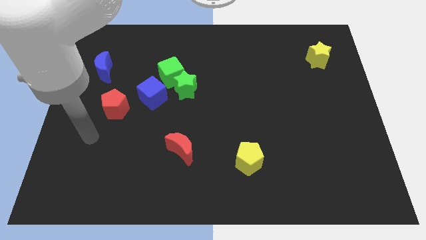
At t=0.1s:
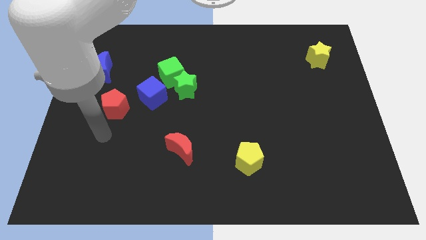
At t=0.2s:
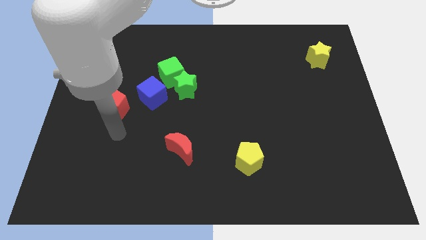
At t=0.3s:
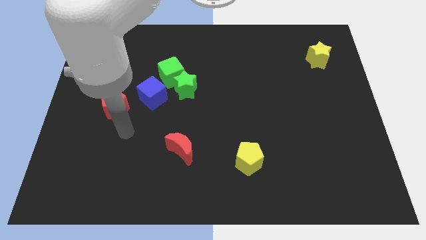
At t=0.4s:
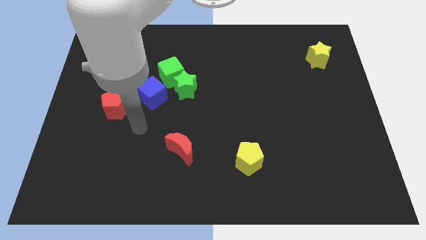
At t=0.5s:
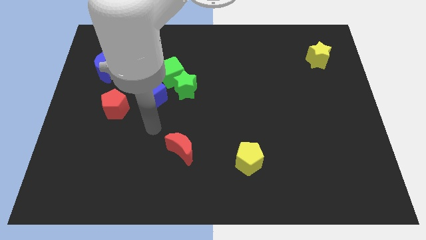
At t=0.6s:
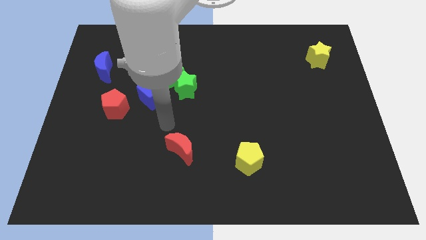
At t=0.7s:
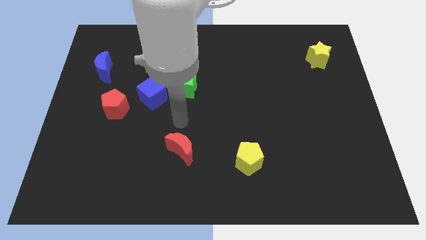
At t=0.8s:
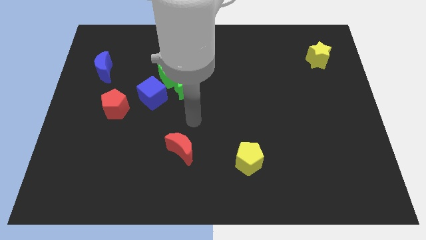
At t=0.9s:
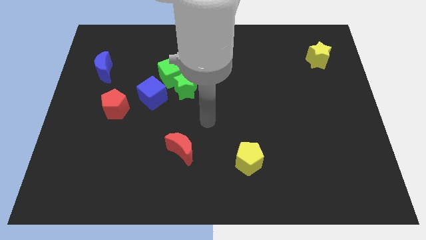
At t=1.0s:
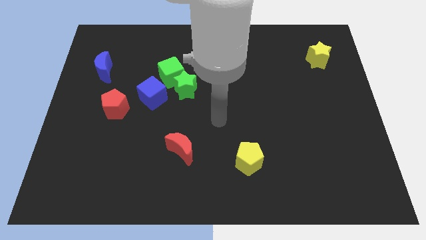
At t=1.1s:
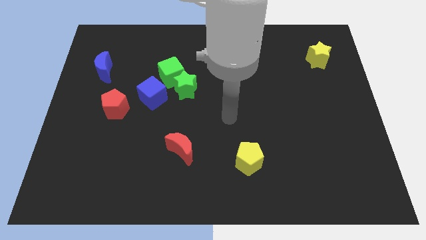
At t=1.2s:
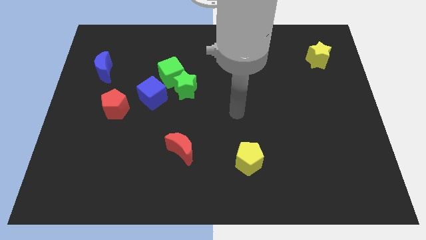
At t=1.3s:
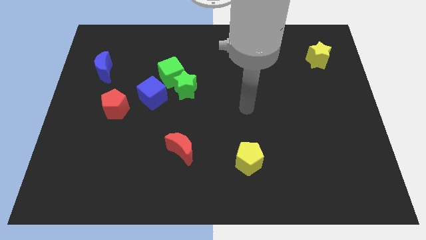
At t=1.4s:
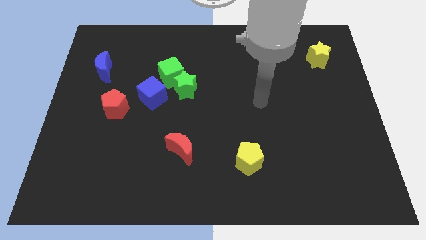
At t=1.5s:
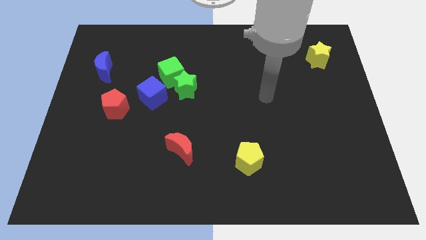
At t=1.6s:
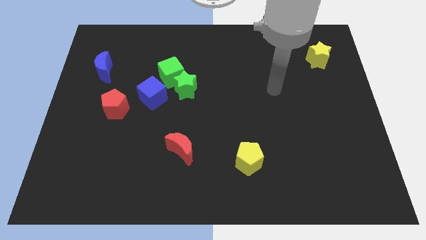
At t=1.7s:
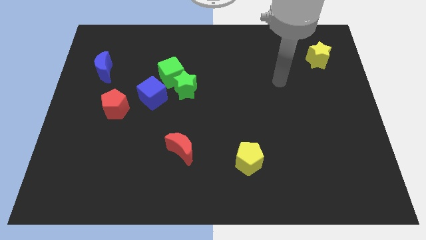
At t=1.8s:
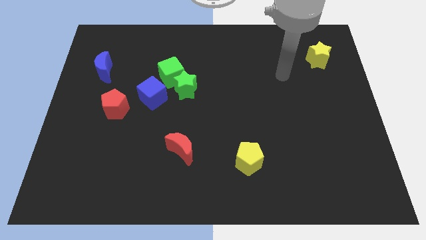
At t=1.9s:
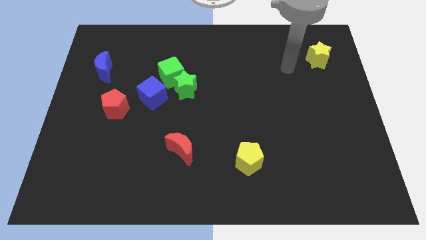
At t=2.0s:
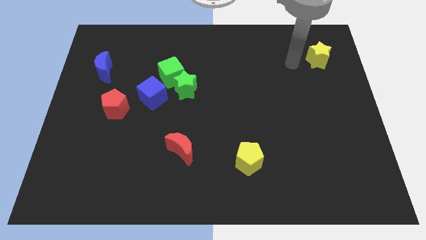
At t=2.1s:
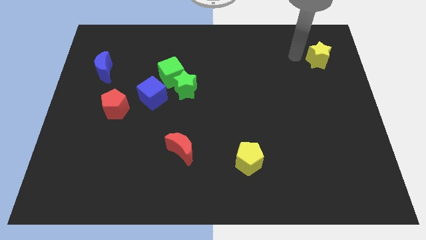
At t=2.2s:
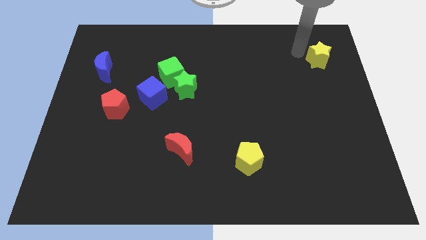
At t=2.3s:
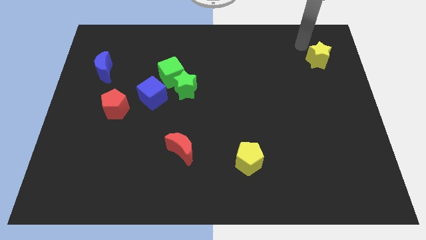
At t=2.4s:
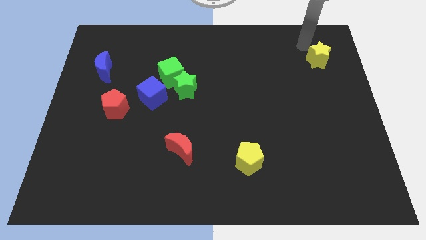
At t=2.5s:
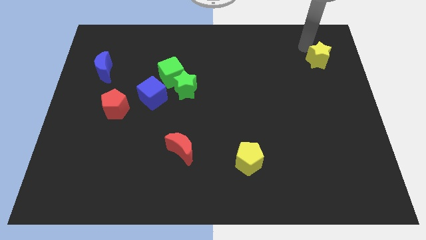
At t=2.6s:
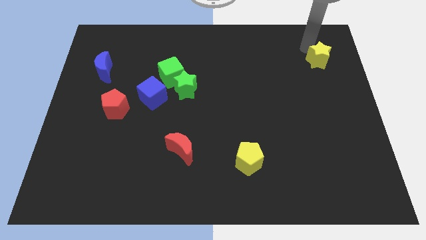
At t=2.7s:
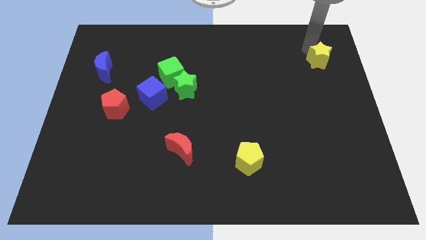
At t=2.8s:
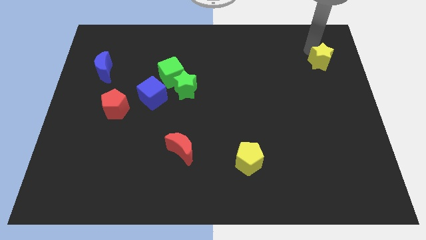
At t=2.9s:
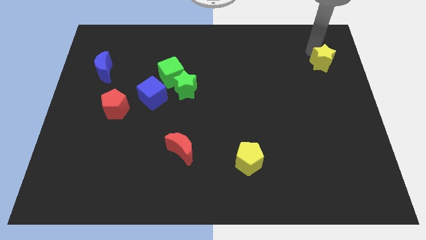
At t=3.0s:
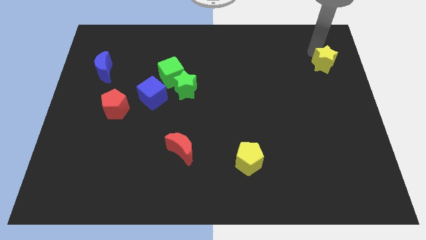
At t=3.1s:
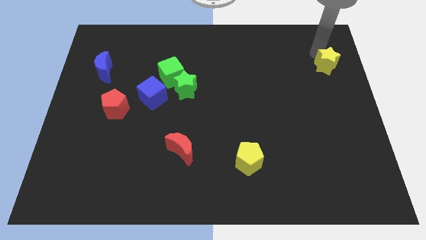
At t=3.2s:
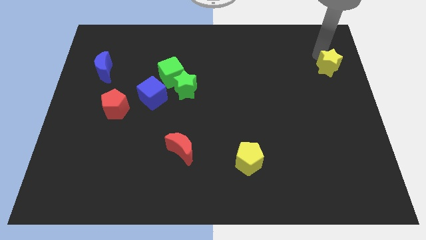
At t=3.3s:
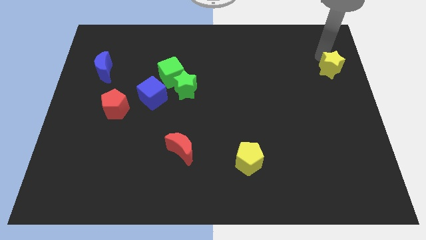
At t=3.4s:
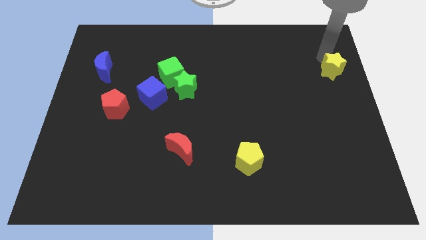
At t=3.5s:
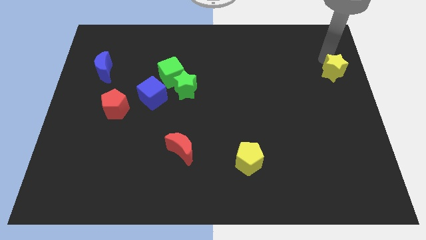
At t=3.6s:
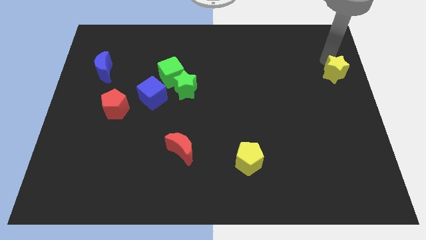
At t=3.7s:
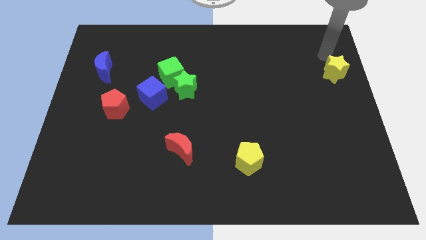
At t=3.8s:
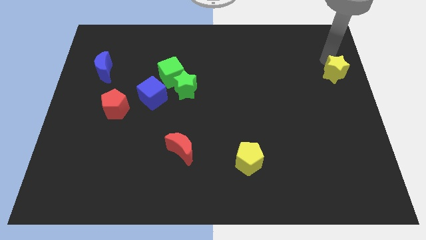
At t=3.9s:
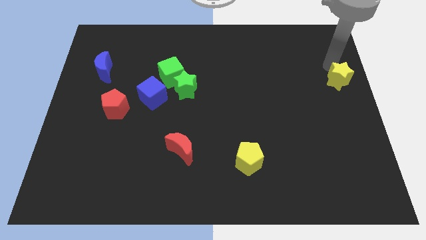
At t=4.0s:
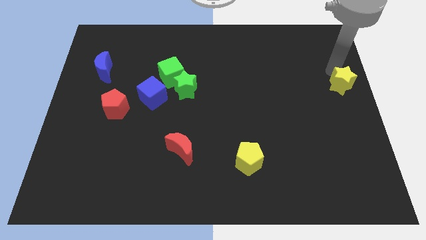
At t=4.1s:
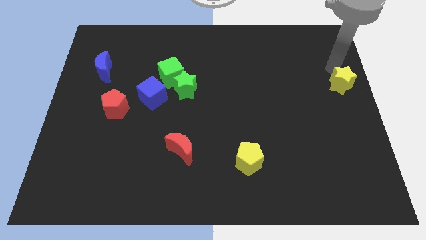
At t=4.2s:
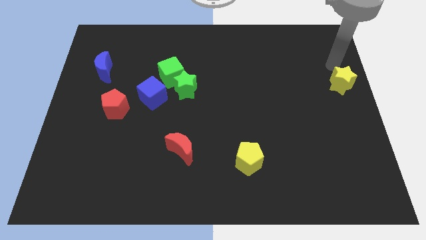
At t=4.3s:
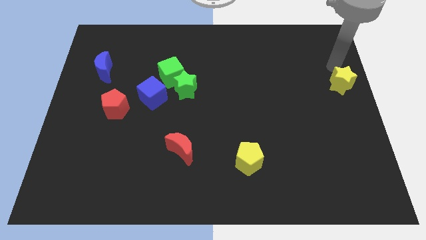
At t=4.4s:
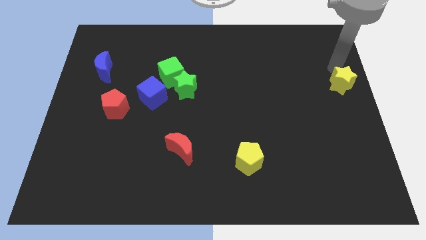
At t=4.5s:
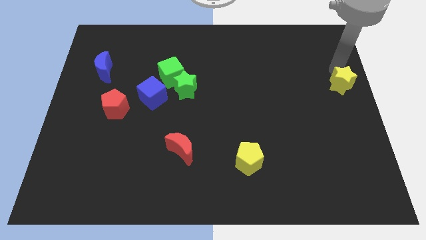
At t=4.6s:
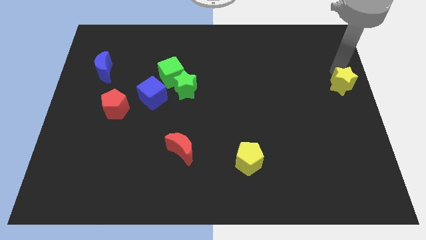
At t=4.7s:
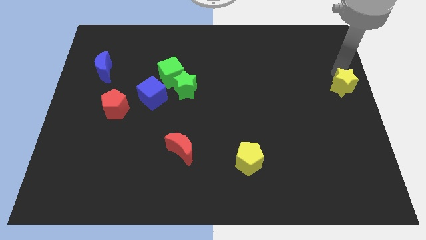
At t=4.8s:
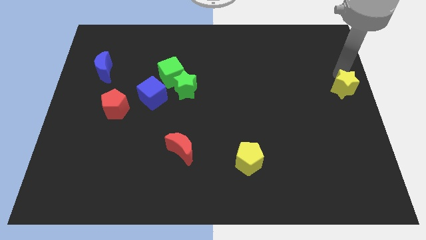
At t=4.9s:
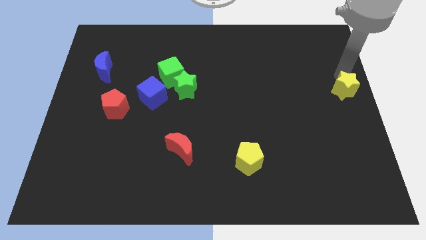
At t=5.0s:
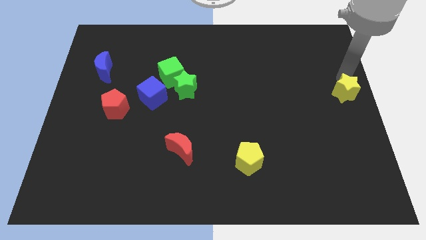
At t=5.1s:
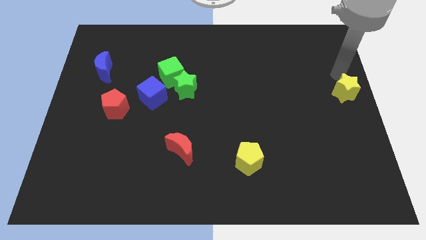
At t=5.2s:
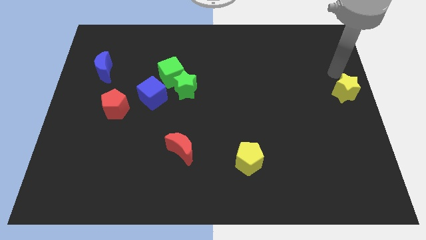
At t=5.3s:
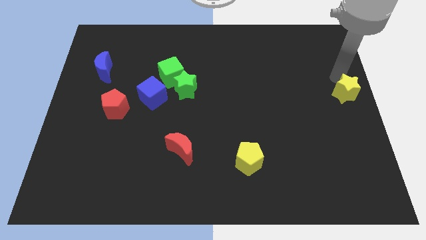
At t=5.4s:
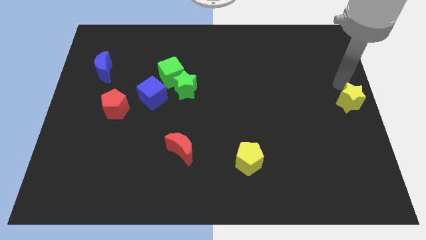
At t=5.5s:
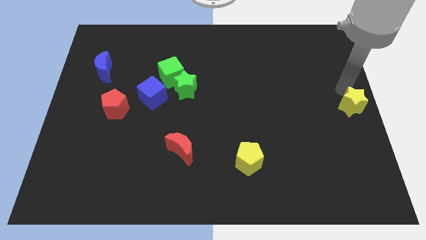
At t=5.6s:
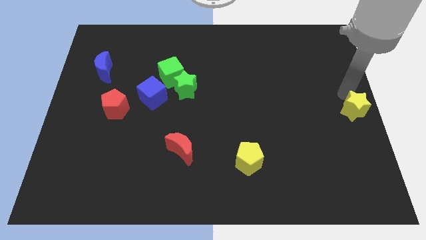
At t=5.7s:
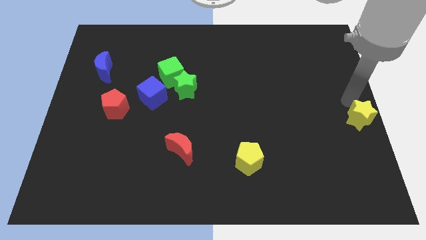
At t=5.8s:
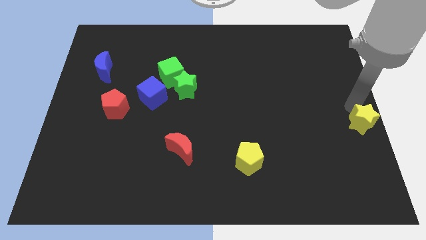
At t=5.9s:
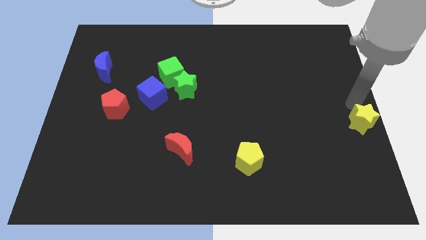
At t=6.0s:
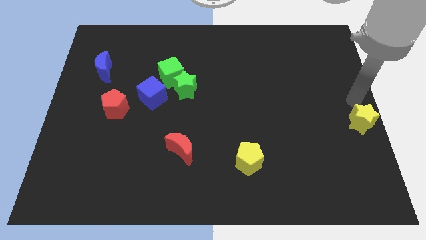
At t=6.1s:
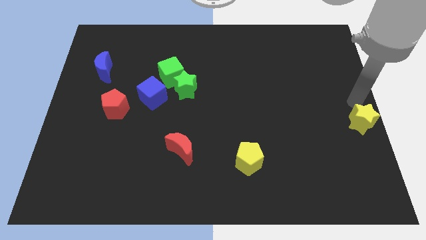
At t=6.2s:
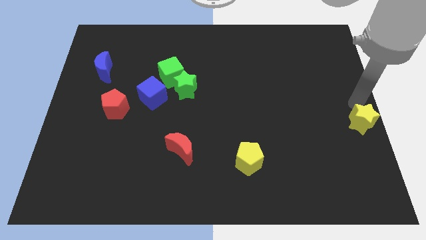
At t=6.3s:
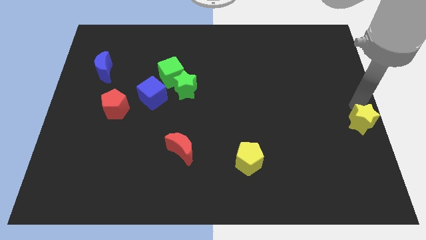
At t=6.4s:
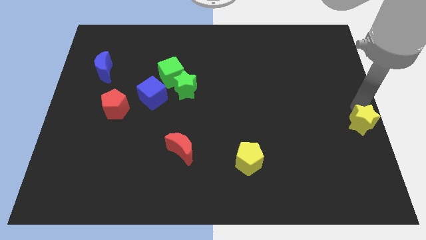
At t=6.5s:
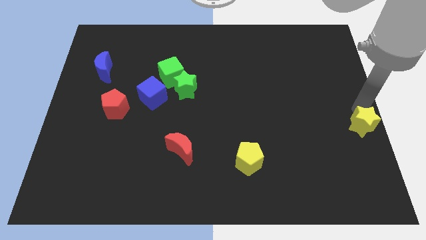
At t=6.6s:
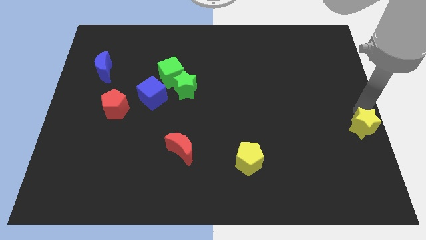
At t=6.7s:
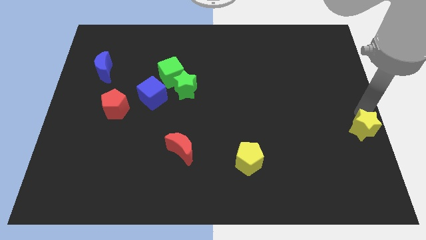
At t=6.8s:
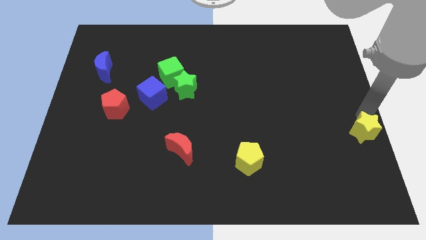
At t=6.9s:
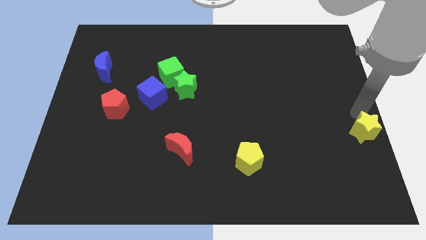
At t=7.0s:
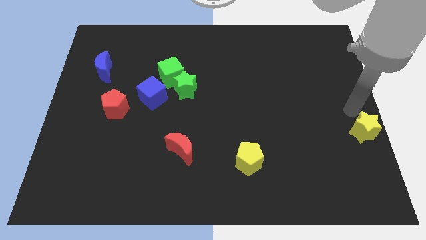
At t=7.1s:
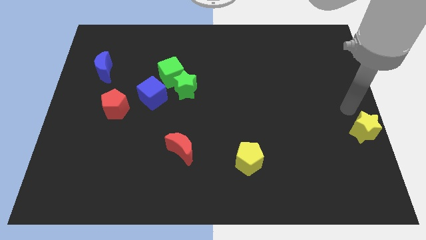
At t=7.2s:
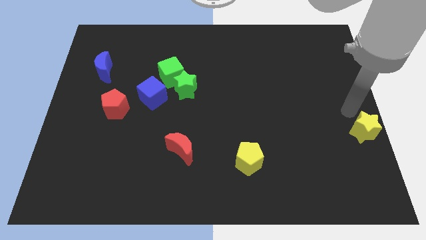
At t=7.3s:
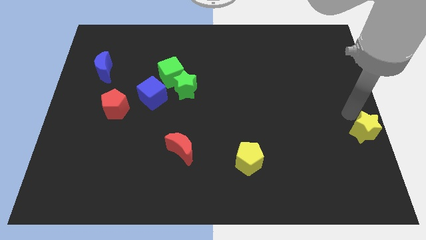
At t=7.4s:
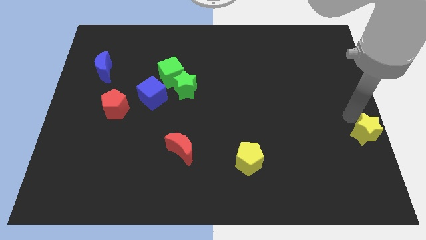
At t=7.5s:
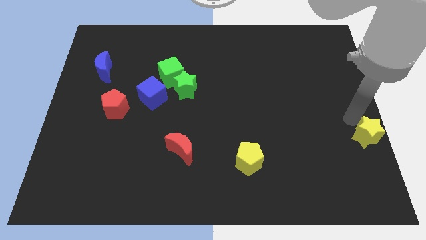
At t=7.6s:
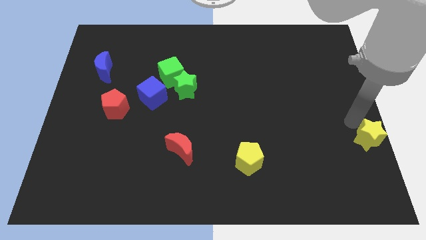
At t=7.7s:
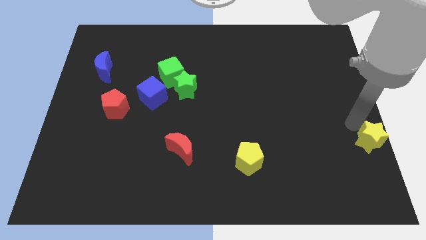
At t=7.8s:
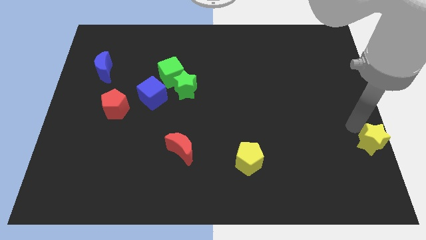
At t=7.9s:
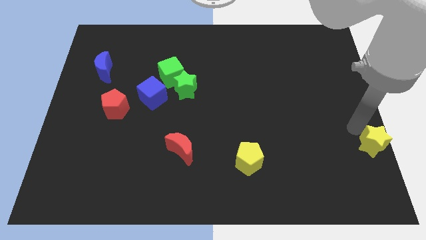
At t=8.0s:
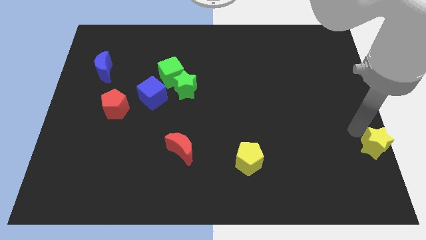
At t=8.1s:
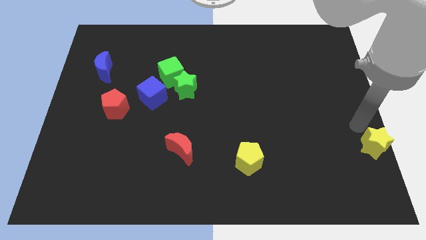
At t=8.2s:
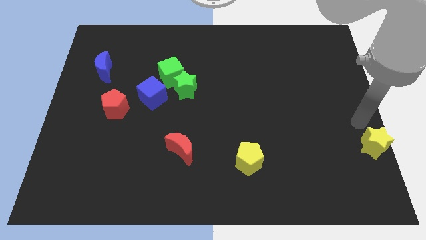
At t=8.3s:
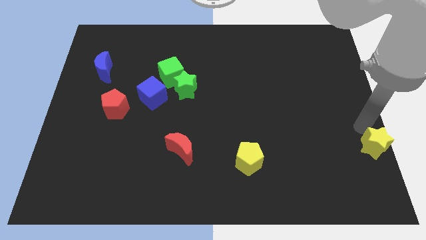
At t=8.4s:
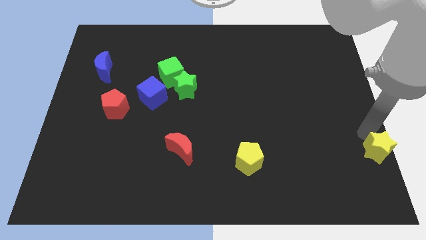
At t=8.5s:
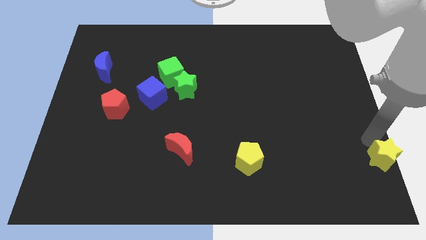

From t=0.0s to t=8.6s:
put the yellow star to the lower right corner
